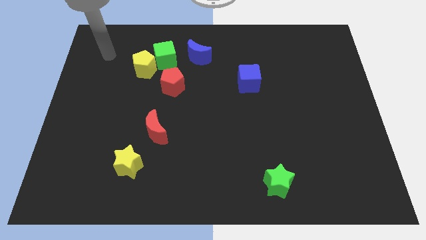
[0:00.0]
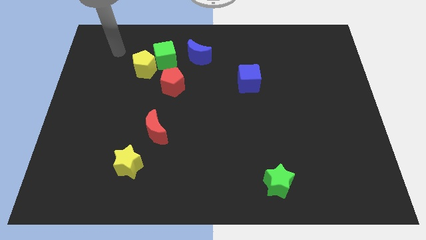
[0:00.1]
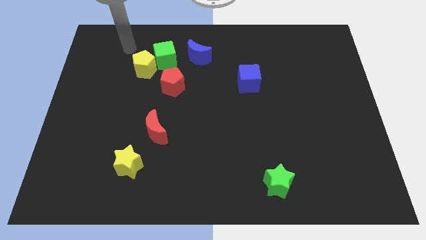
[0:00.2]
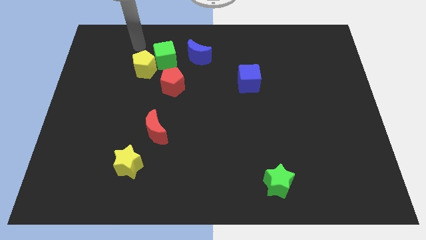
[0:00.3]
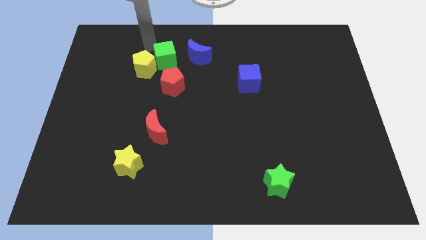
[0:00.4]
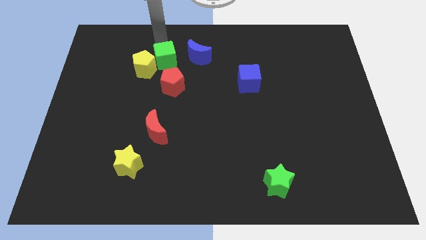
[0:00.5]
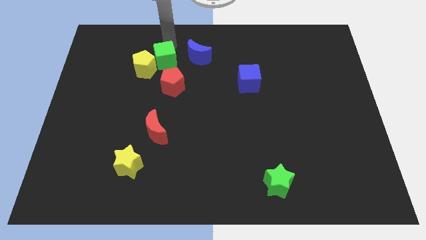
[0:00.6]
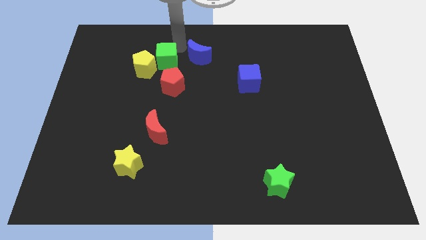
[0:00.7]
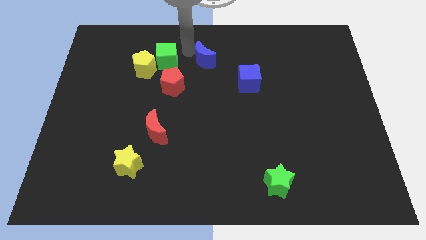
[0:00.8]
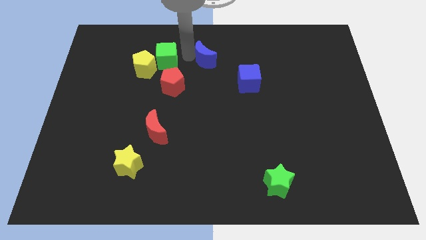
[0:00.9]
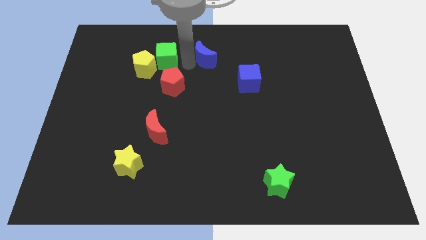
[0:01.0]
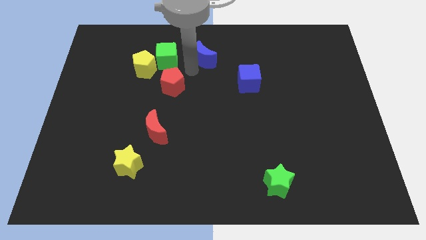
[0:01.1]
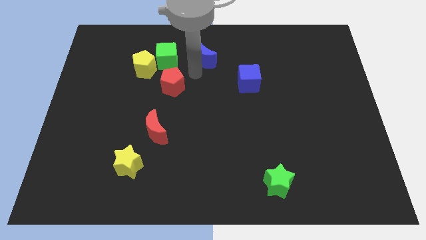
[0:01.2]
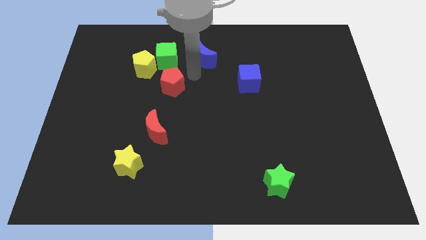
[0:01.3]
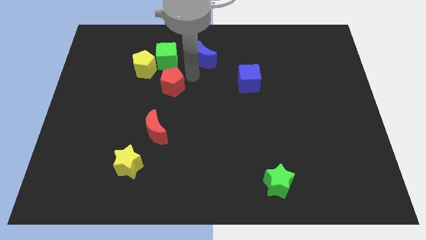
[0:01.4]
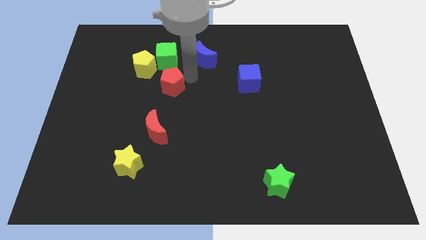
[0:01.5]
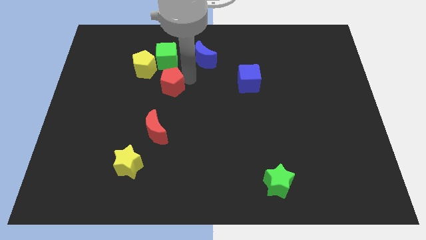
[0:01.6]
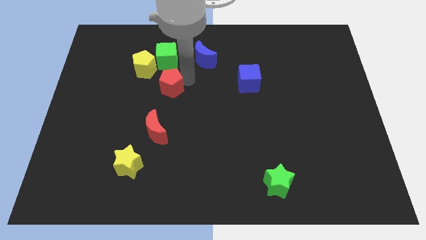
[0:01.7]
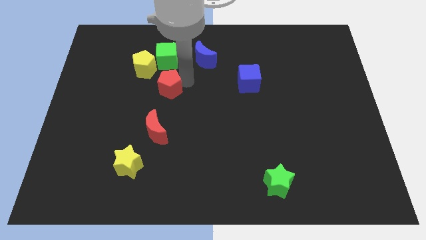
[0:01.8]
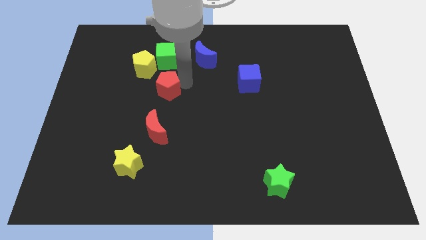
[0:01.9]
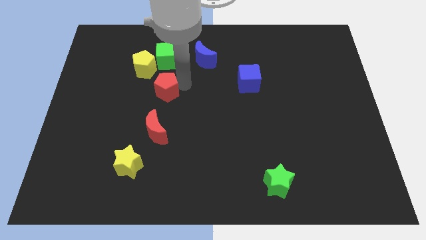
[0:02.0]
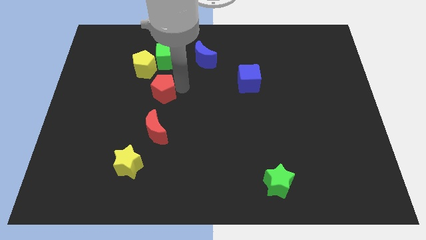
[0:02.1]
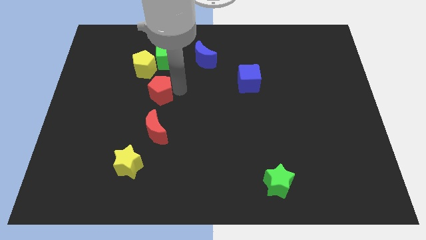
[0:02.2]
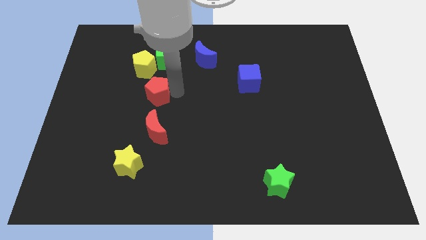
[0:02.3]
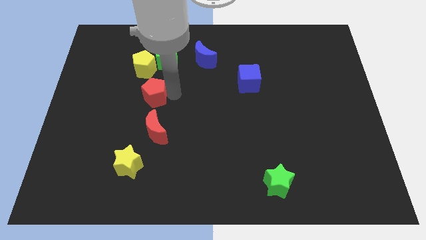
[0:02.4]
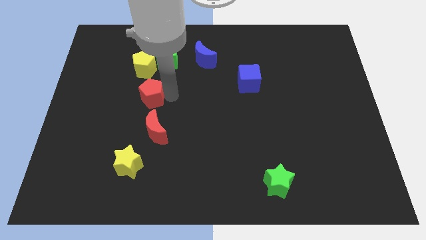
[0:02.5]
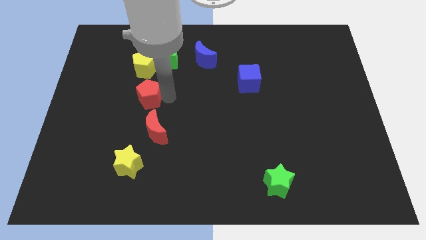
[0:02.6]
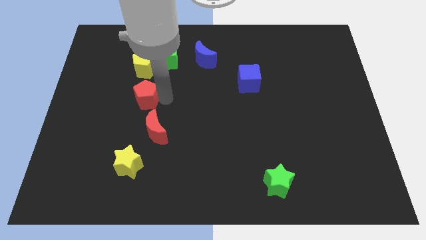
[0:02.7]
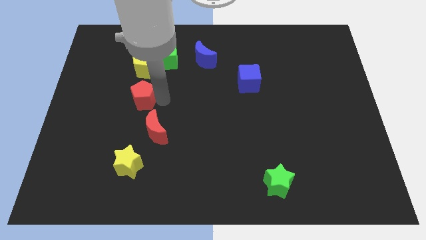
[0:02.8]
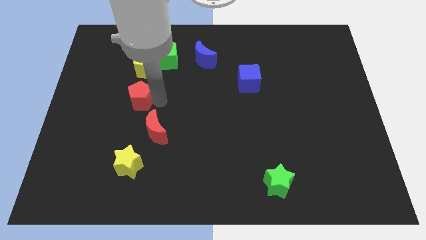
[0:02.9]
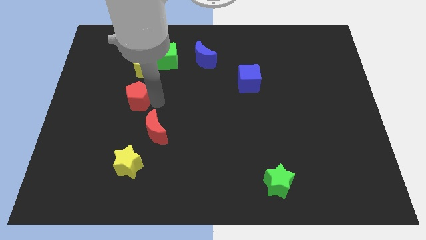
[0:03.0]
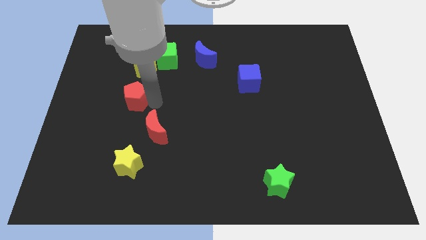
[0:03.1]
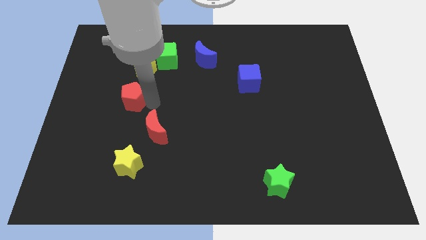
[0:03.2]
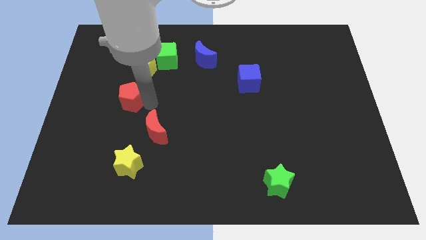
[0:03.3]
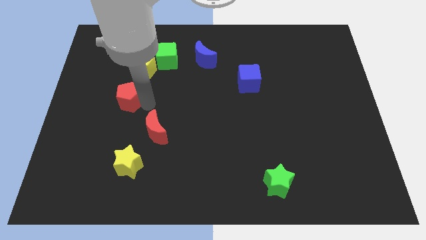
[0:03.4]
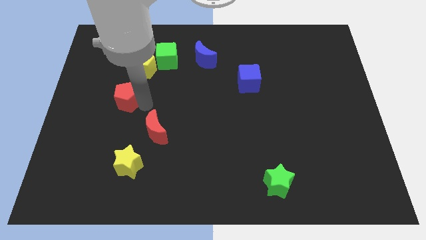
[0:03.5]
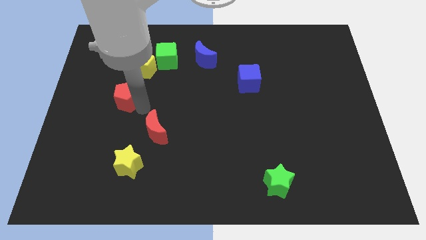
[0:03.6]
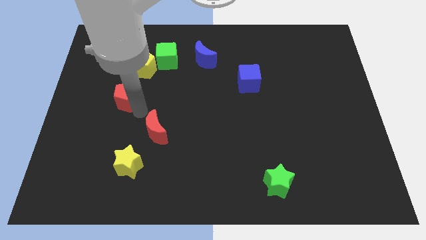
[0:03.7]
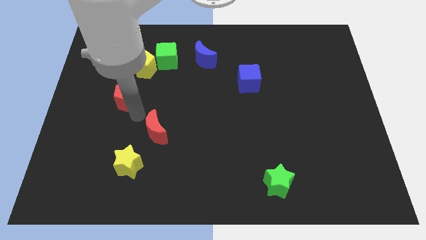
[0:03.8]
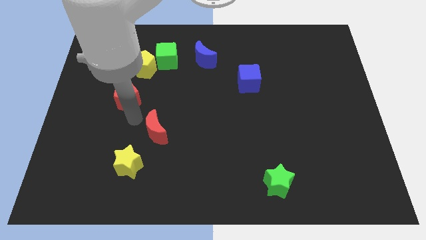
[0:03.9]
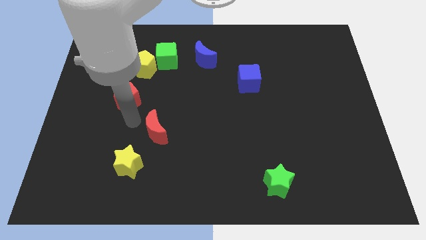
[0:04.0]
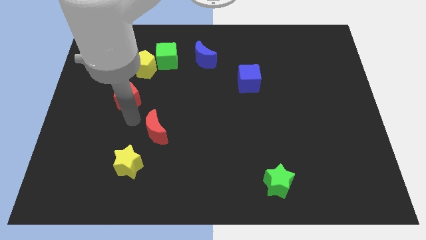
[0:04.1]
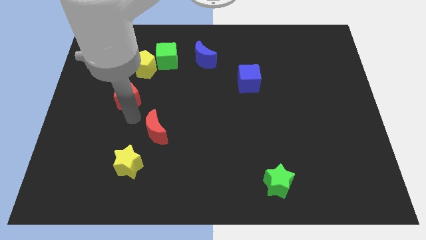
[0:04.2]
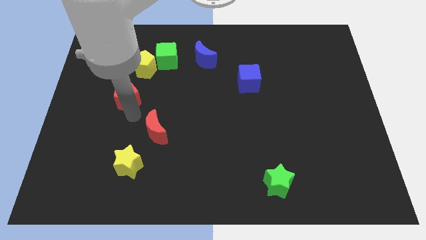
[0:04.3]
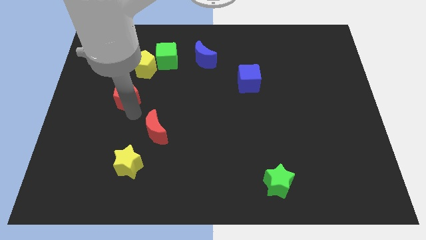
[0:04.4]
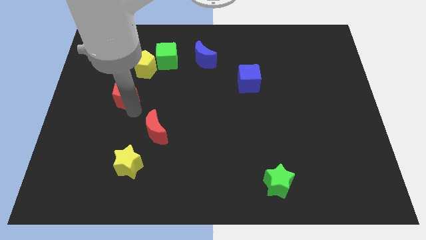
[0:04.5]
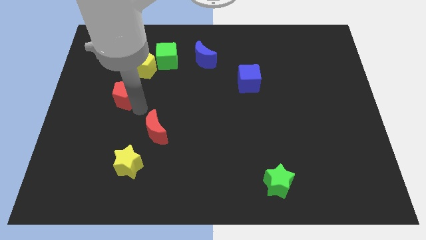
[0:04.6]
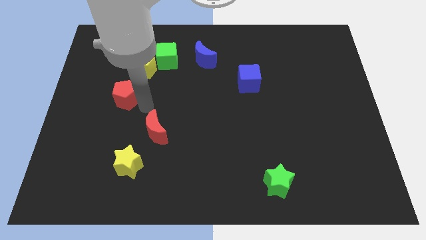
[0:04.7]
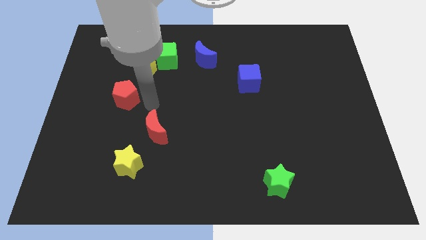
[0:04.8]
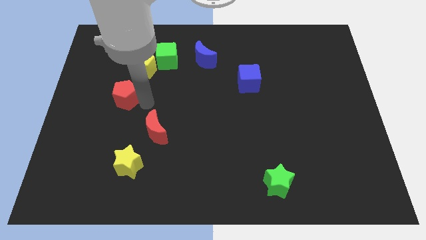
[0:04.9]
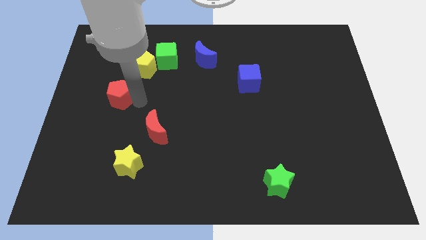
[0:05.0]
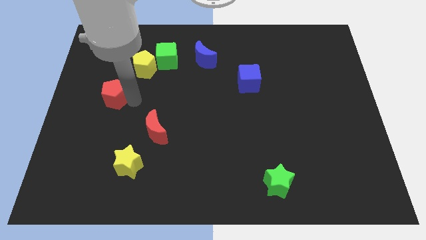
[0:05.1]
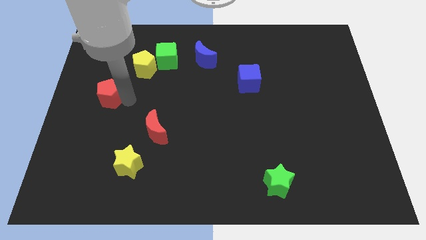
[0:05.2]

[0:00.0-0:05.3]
push the red pentagon to the center left
